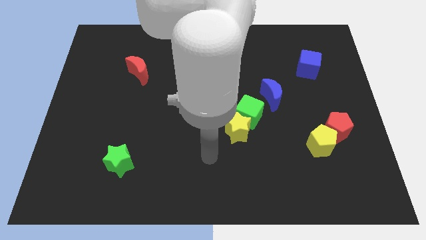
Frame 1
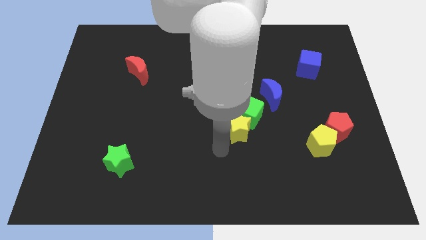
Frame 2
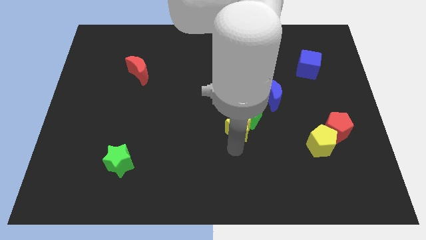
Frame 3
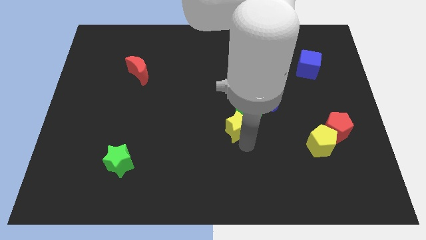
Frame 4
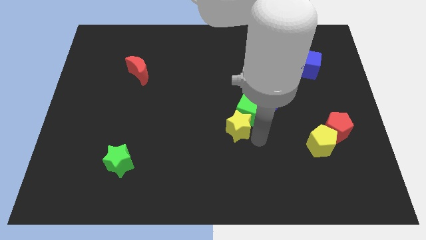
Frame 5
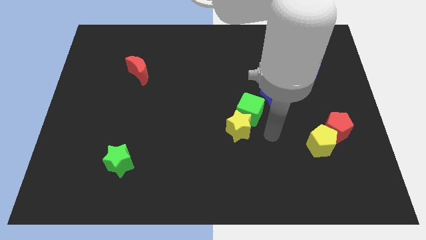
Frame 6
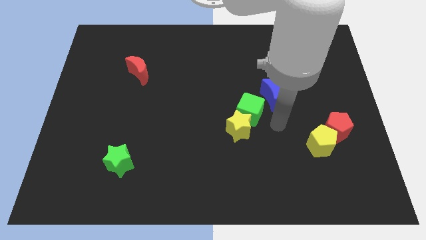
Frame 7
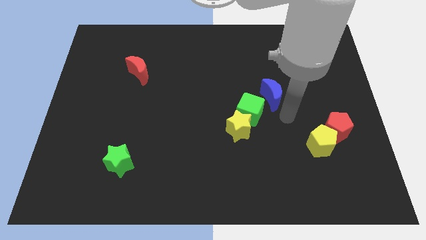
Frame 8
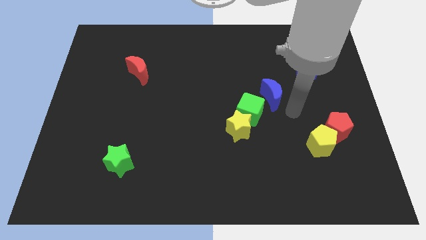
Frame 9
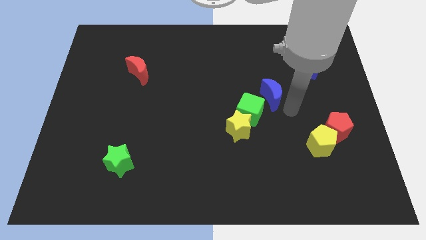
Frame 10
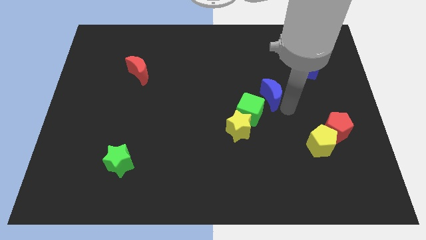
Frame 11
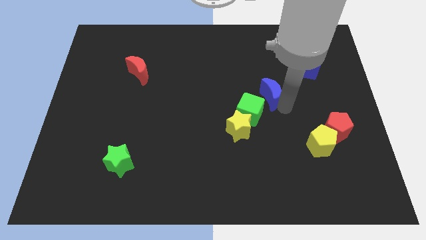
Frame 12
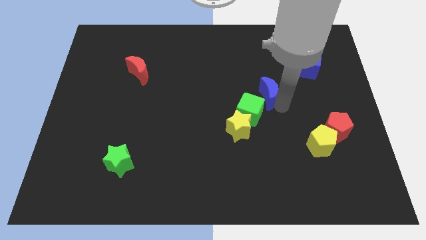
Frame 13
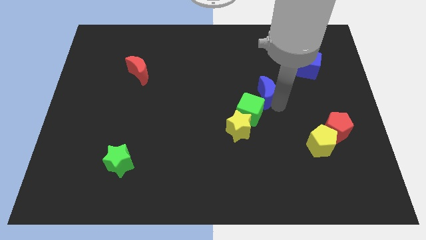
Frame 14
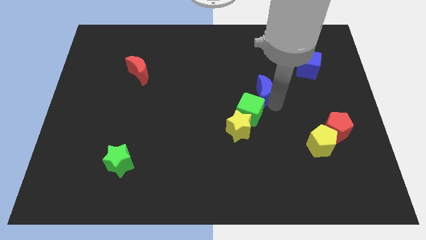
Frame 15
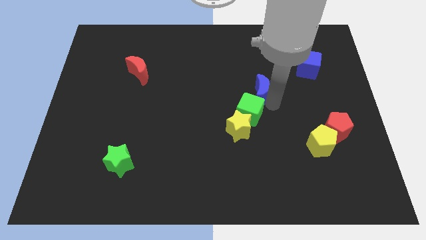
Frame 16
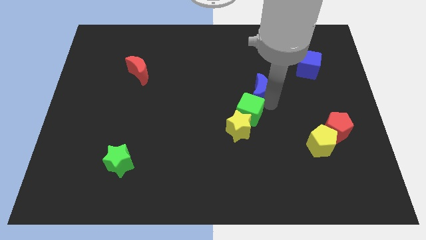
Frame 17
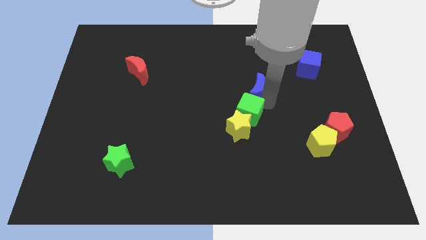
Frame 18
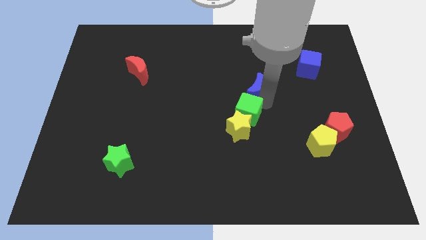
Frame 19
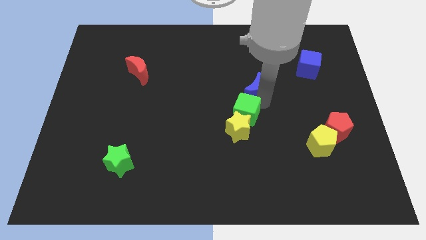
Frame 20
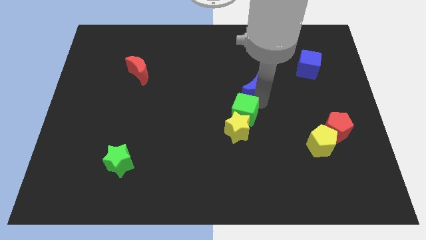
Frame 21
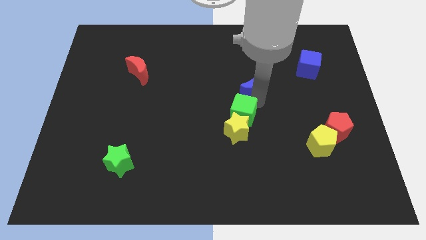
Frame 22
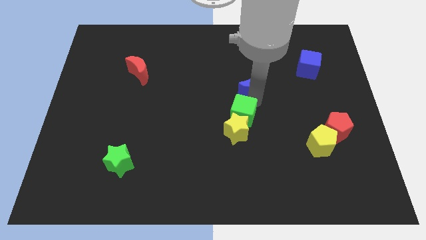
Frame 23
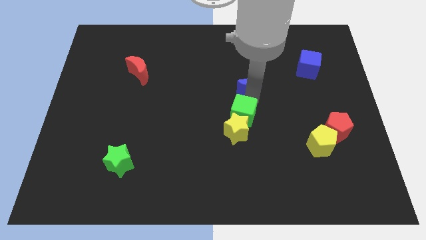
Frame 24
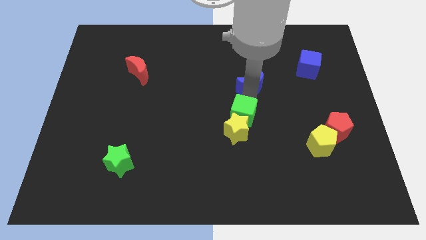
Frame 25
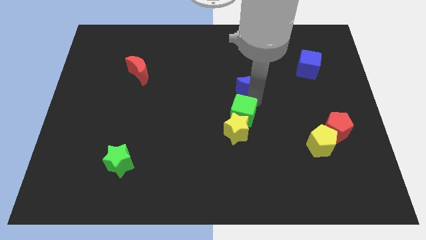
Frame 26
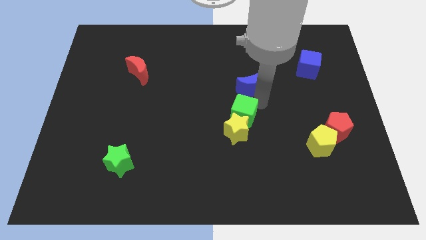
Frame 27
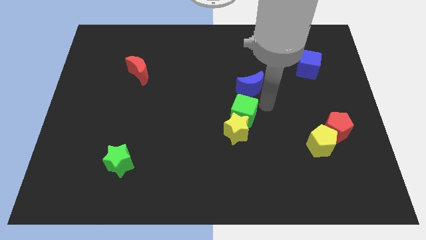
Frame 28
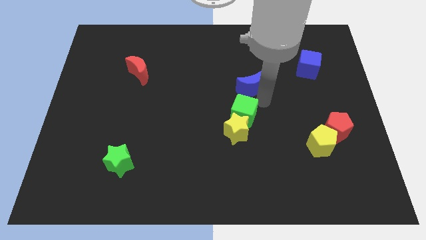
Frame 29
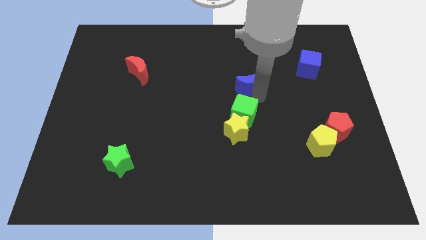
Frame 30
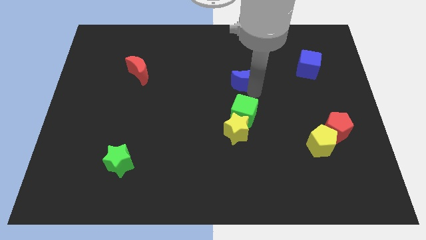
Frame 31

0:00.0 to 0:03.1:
move the blue moon a bit up and left

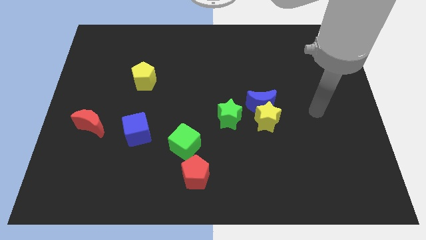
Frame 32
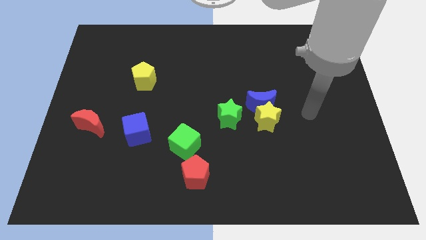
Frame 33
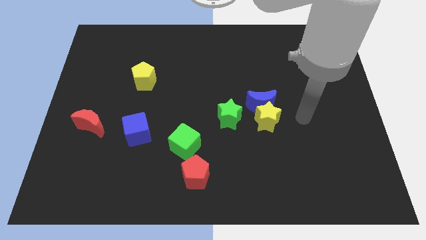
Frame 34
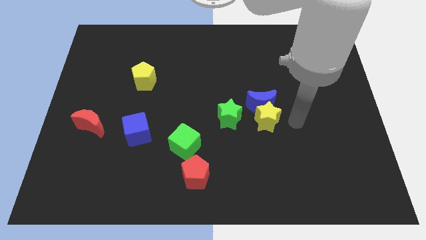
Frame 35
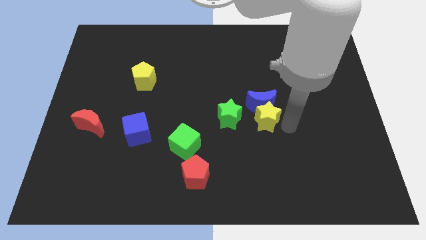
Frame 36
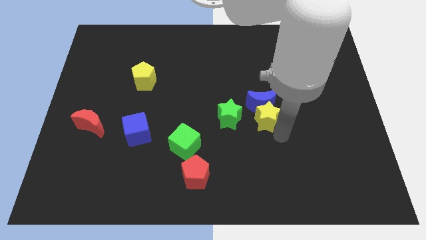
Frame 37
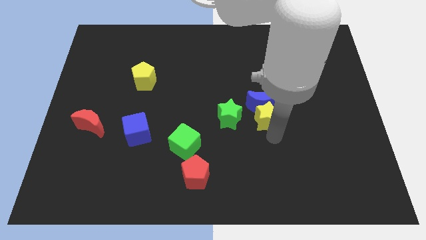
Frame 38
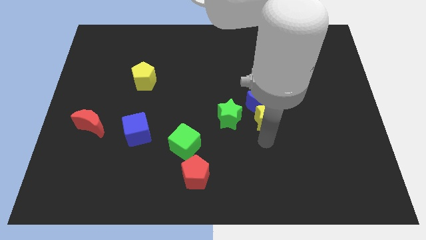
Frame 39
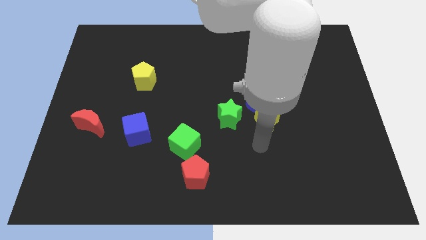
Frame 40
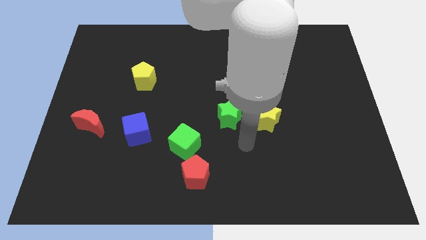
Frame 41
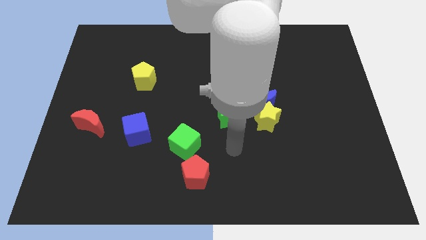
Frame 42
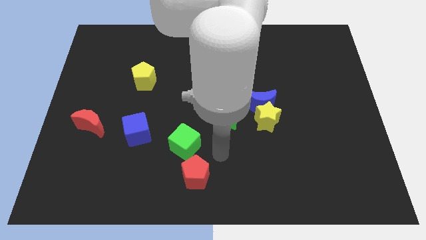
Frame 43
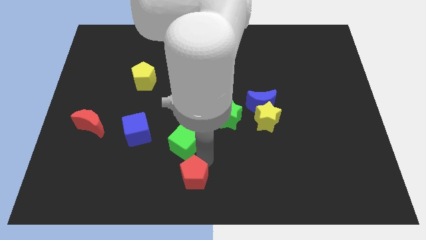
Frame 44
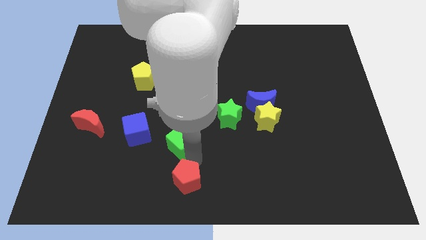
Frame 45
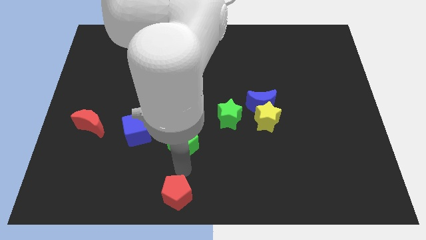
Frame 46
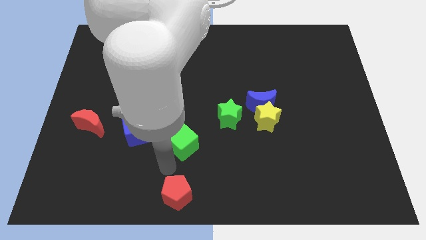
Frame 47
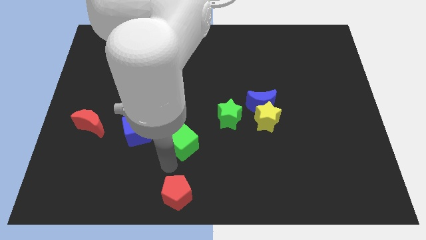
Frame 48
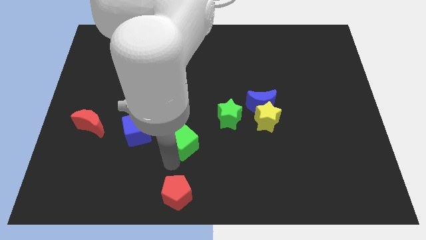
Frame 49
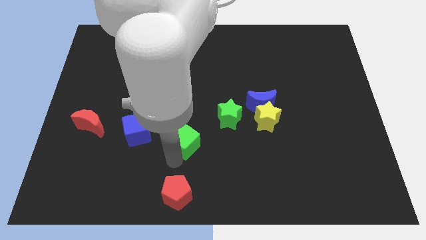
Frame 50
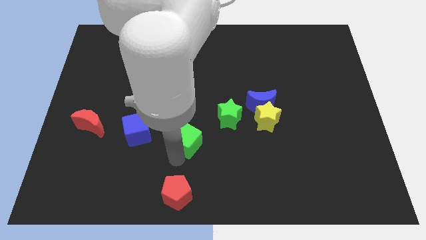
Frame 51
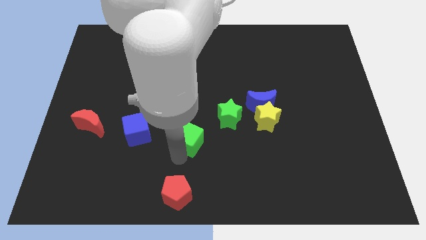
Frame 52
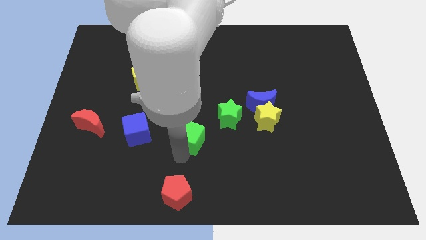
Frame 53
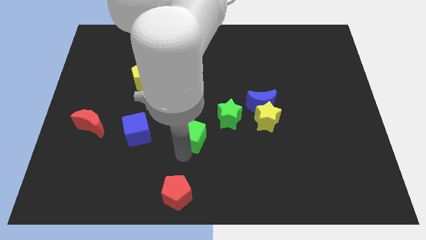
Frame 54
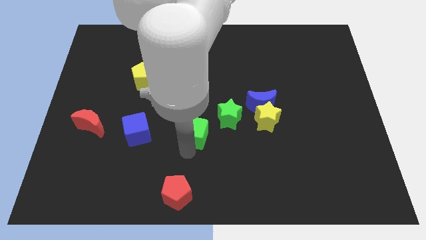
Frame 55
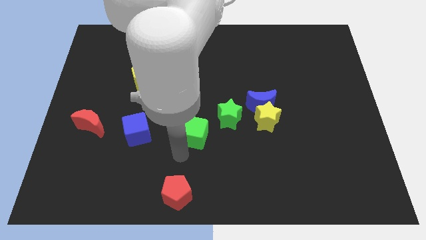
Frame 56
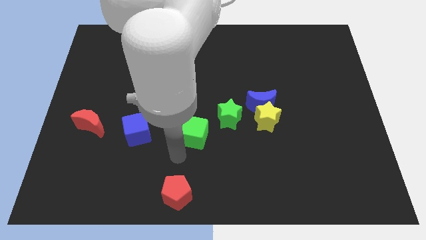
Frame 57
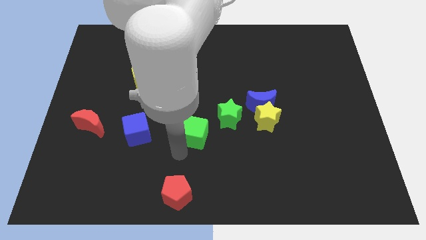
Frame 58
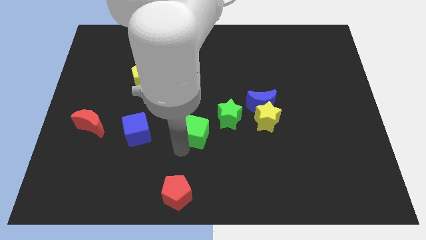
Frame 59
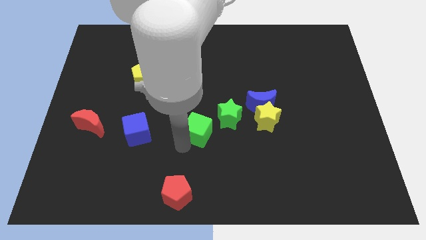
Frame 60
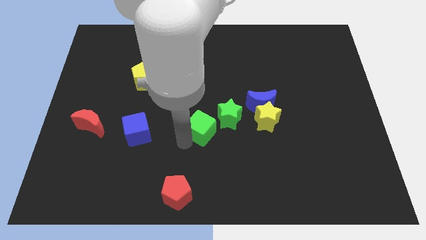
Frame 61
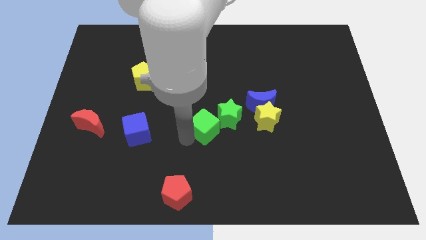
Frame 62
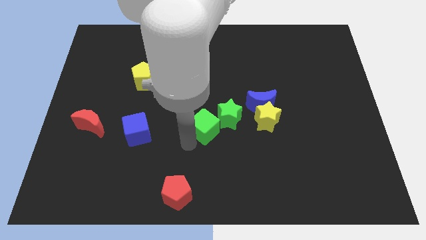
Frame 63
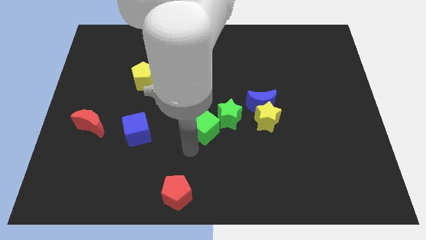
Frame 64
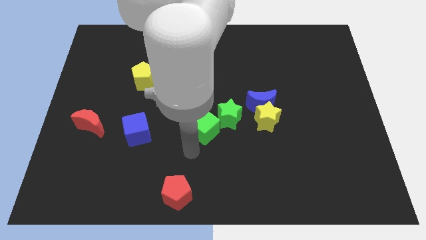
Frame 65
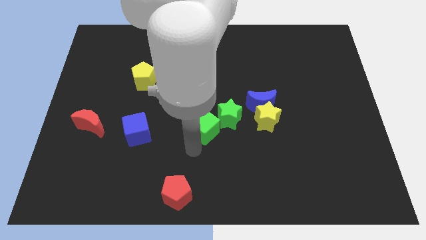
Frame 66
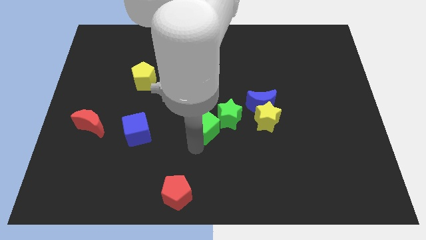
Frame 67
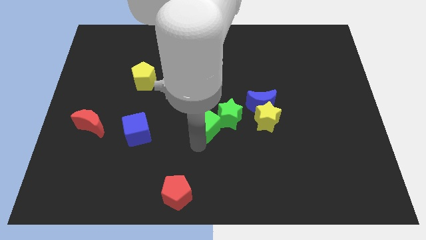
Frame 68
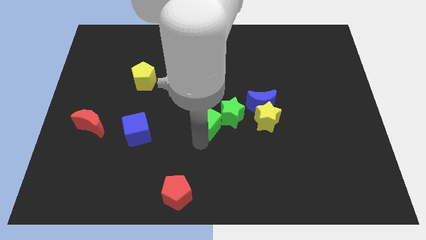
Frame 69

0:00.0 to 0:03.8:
slightly slide the green cube up and right

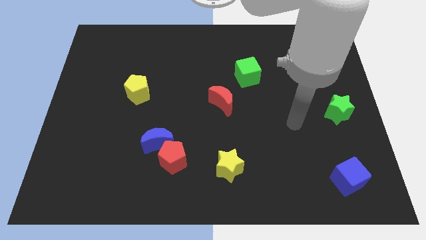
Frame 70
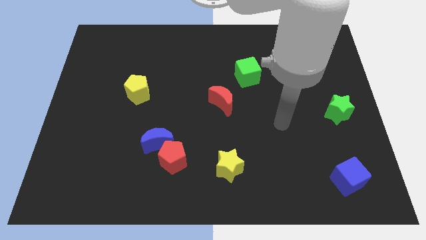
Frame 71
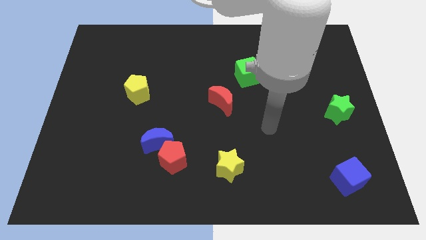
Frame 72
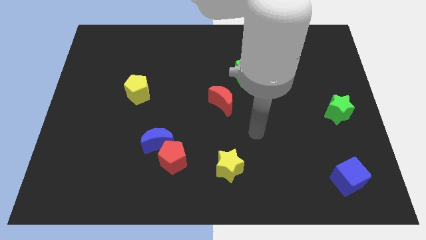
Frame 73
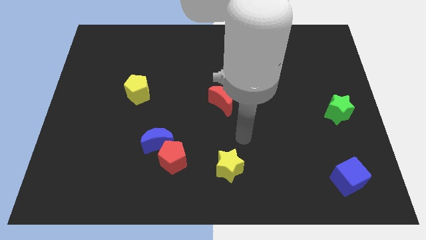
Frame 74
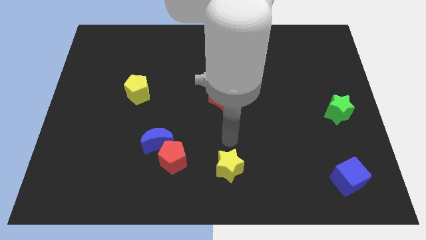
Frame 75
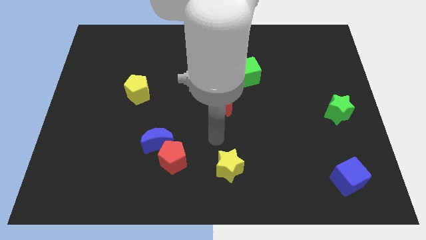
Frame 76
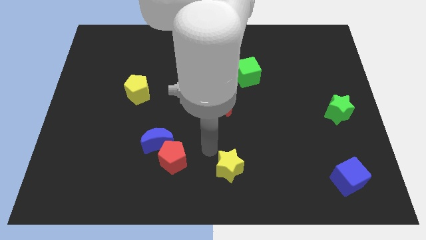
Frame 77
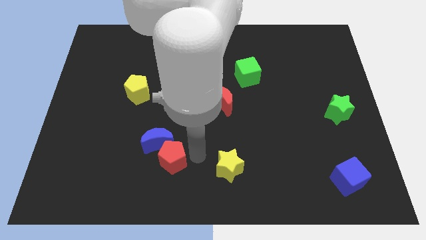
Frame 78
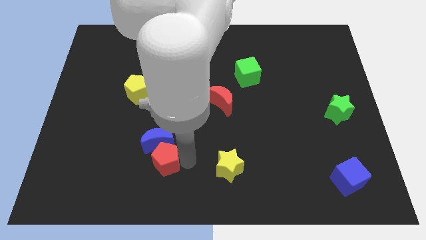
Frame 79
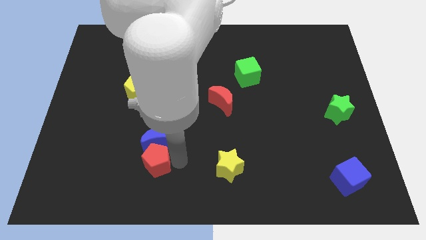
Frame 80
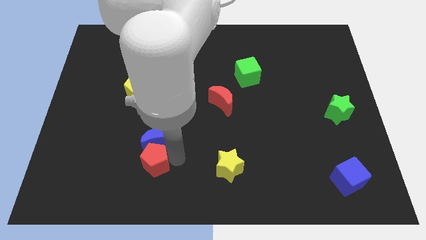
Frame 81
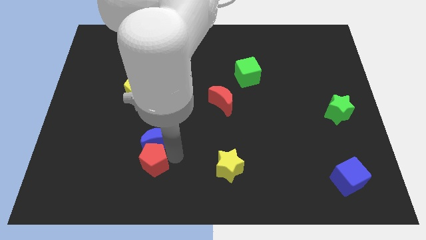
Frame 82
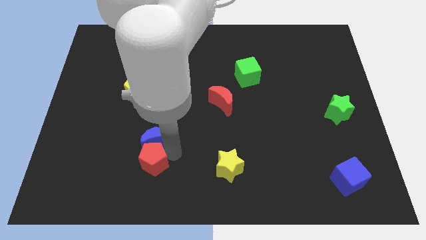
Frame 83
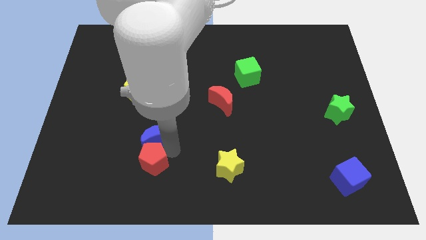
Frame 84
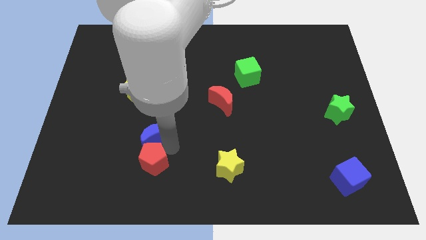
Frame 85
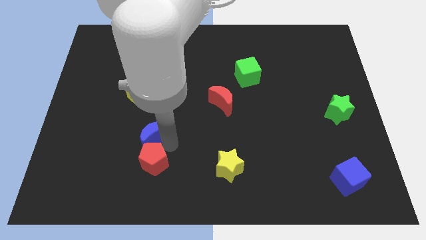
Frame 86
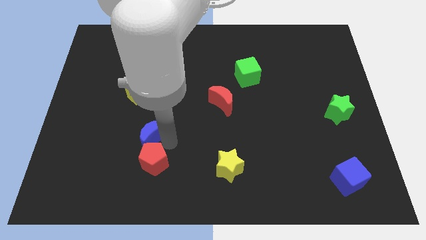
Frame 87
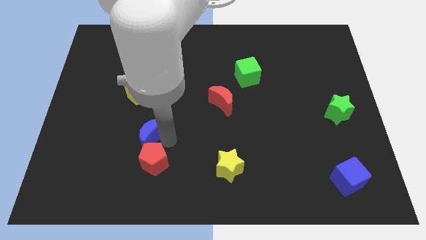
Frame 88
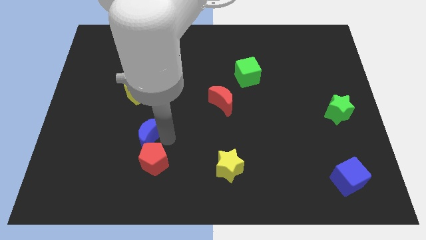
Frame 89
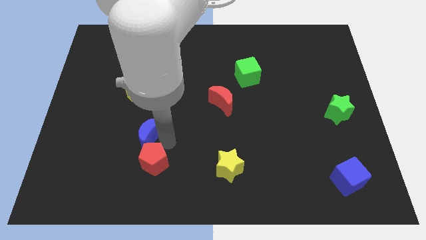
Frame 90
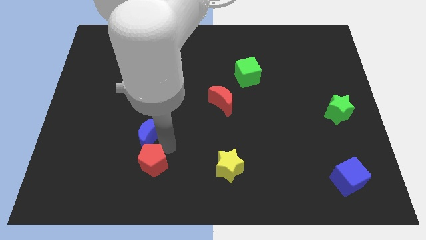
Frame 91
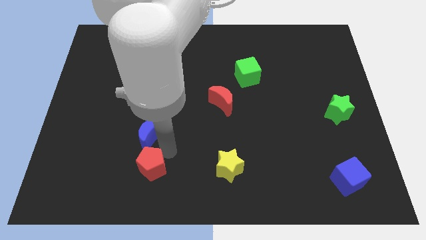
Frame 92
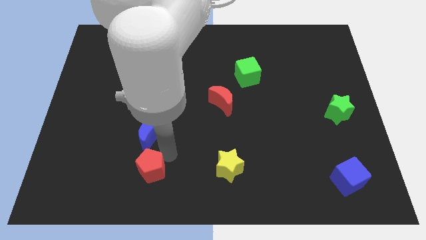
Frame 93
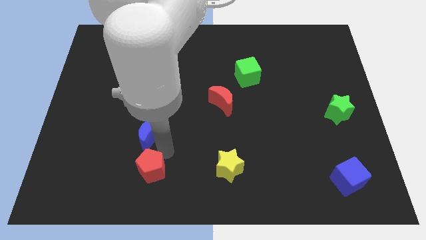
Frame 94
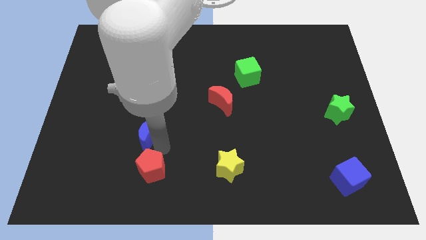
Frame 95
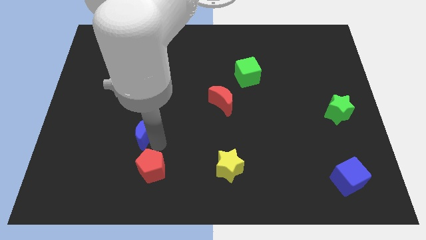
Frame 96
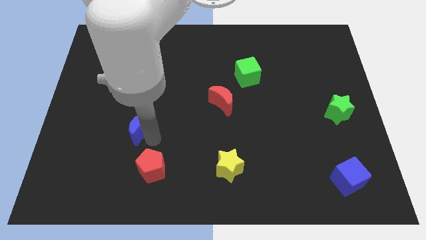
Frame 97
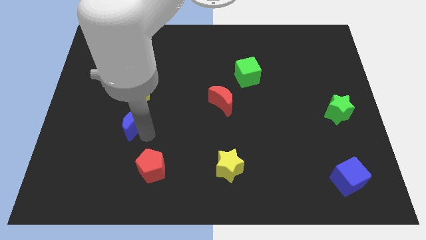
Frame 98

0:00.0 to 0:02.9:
slide the blue moon a little bit upwards and then to the left
